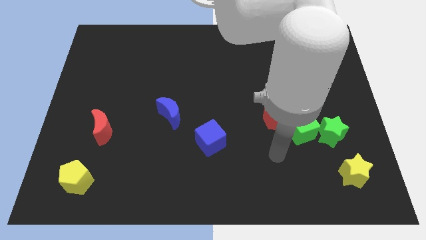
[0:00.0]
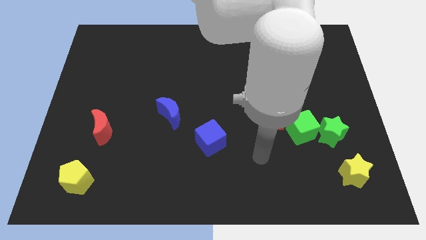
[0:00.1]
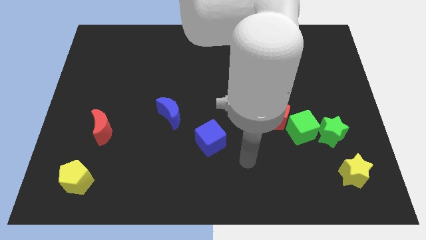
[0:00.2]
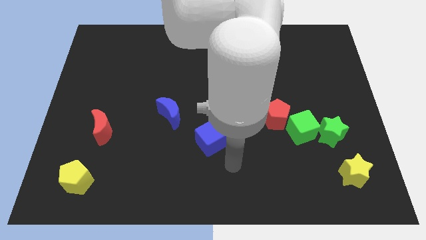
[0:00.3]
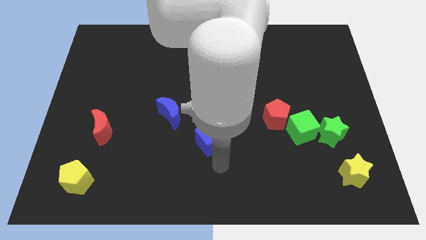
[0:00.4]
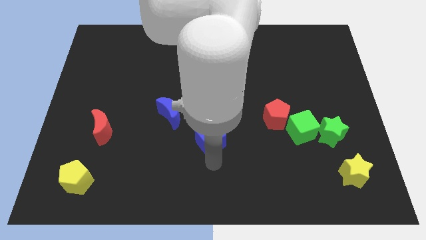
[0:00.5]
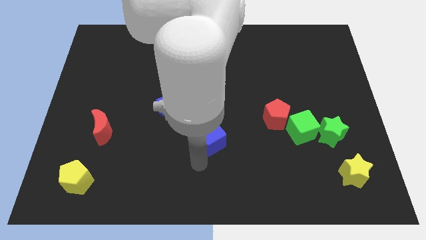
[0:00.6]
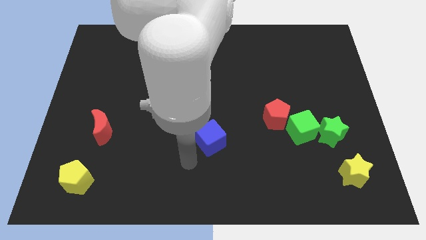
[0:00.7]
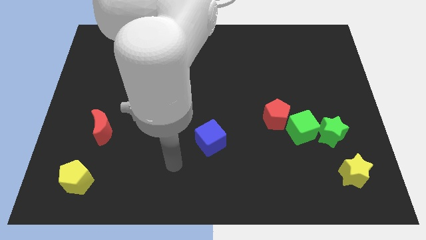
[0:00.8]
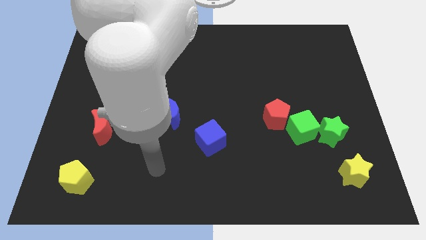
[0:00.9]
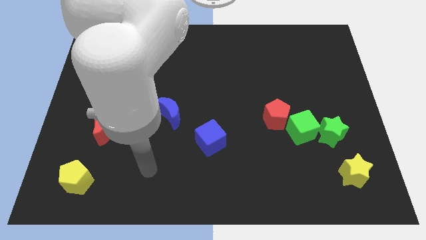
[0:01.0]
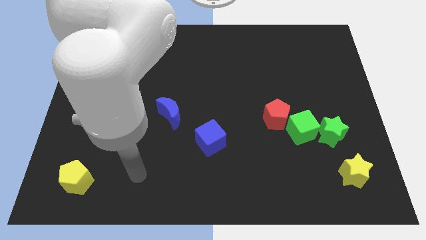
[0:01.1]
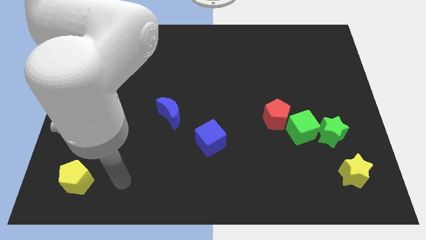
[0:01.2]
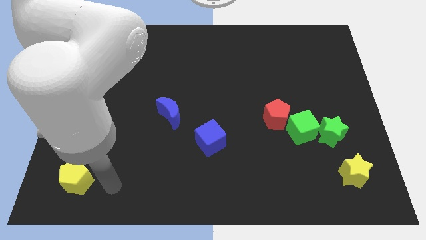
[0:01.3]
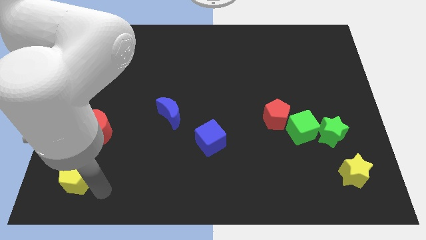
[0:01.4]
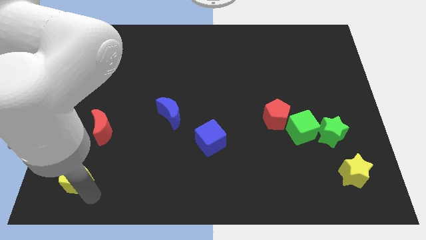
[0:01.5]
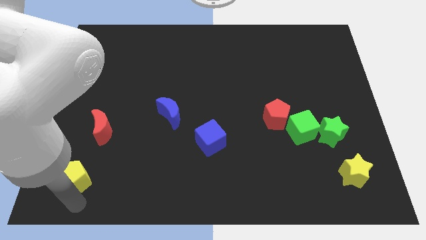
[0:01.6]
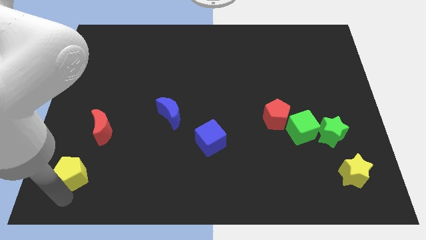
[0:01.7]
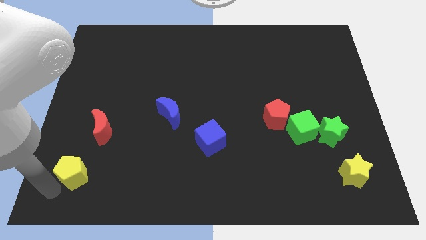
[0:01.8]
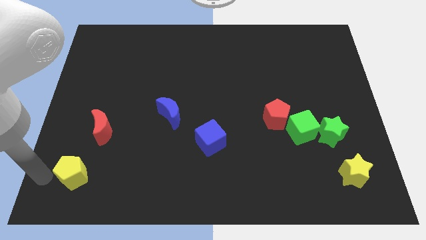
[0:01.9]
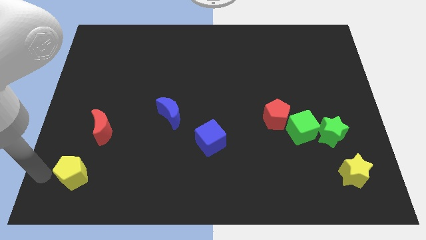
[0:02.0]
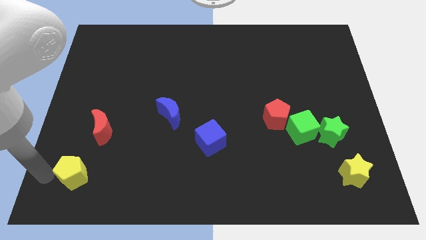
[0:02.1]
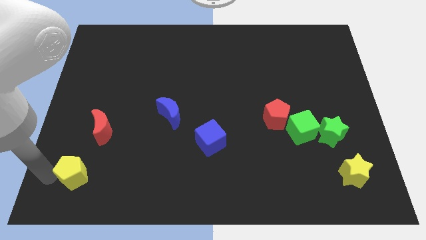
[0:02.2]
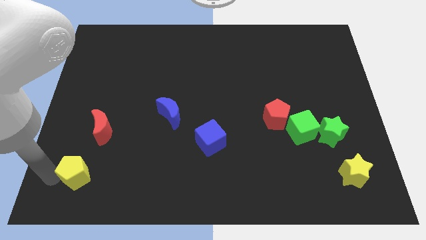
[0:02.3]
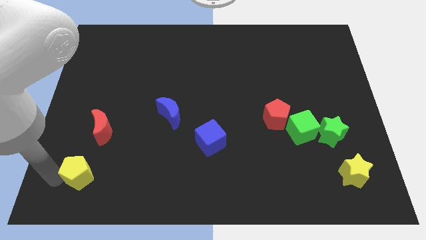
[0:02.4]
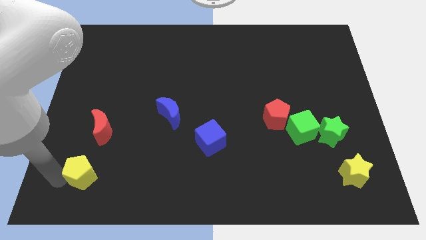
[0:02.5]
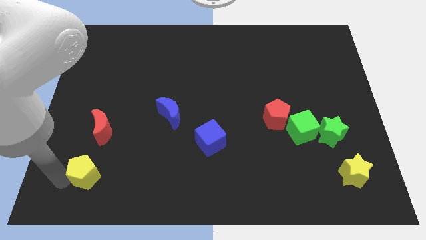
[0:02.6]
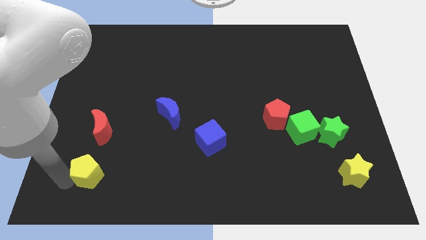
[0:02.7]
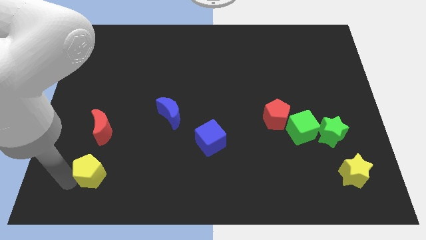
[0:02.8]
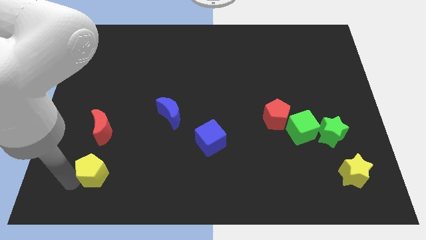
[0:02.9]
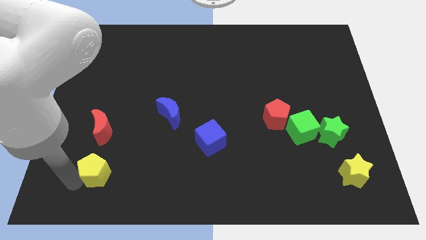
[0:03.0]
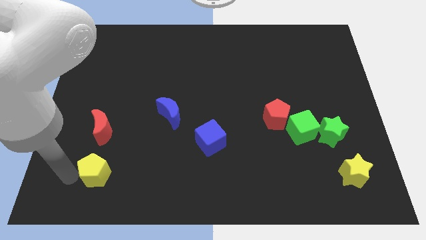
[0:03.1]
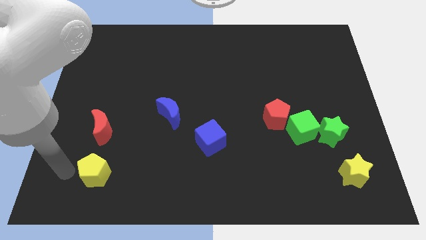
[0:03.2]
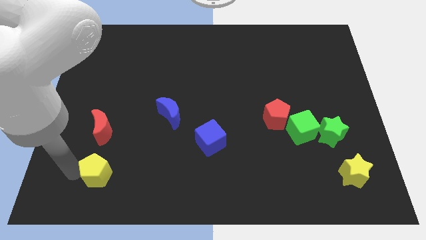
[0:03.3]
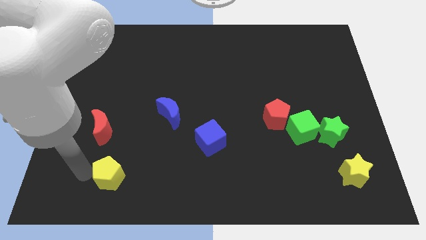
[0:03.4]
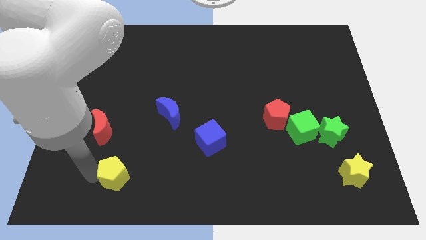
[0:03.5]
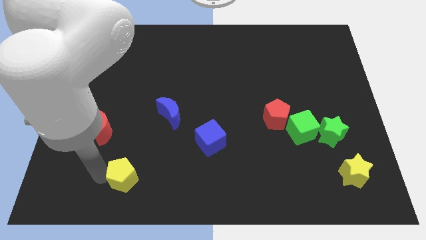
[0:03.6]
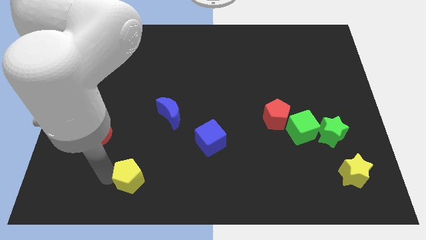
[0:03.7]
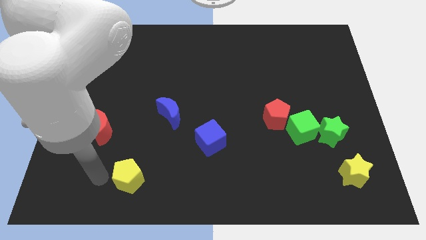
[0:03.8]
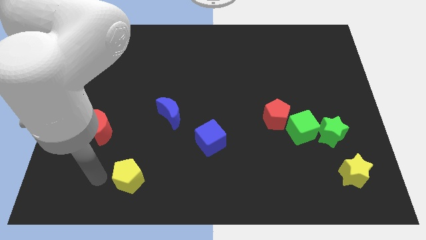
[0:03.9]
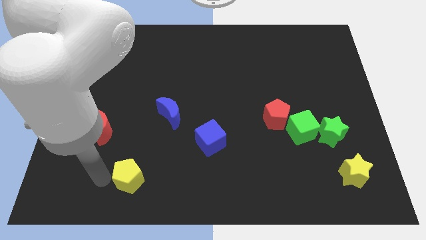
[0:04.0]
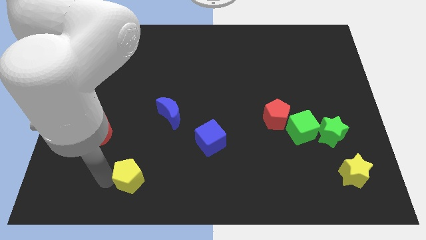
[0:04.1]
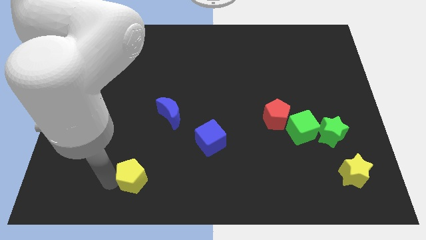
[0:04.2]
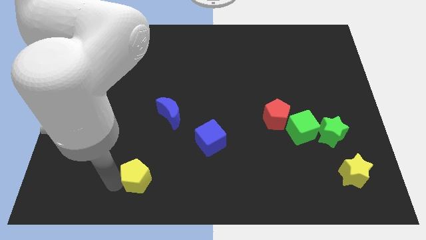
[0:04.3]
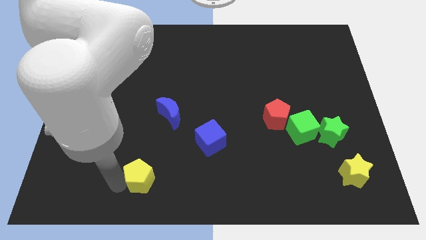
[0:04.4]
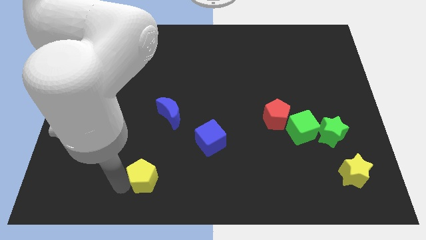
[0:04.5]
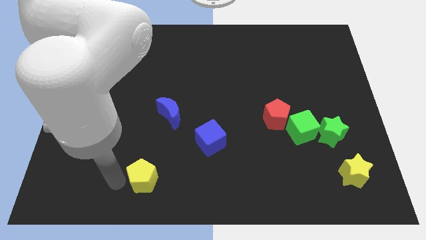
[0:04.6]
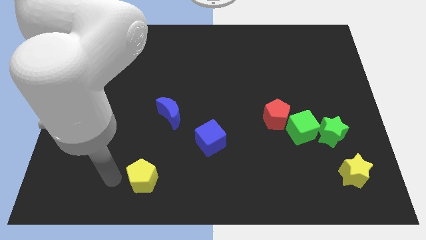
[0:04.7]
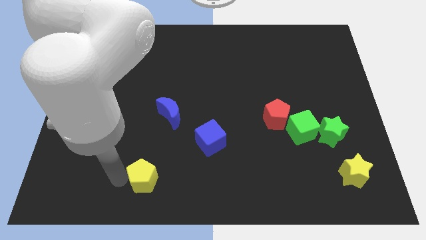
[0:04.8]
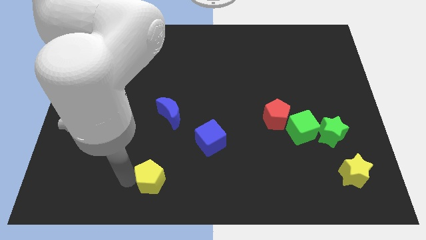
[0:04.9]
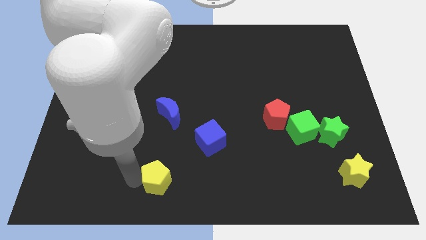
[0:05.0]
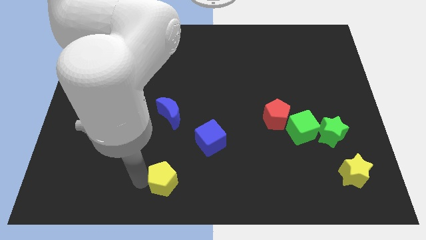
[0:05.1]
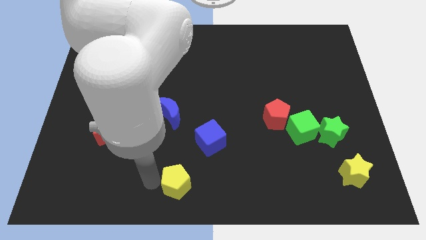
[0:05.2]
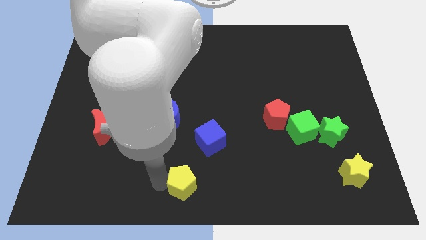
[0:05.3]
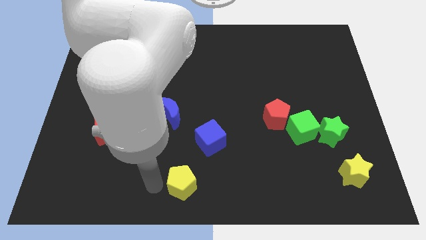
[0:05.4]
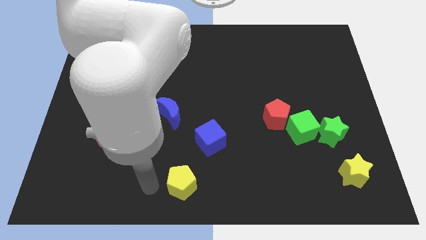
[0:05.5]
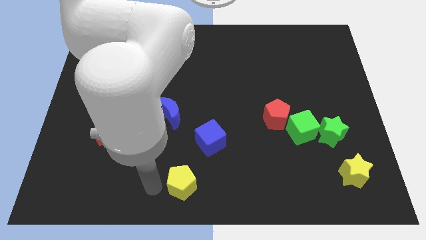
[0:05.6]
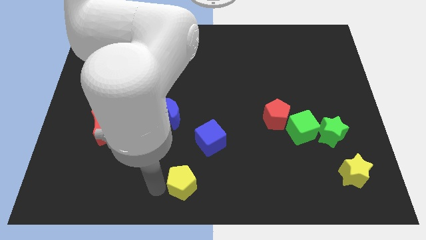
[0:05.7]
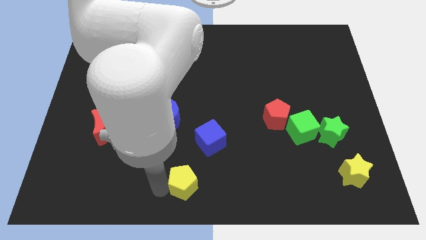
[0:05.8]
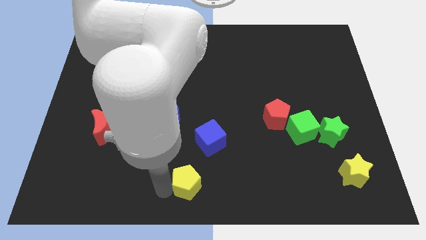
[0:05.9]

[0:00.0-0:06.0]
move the yellow pentagon to the bottom side of the blue cube

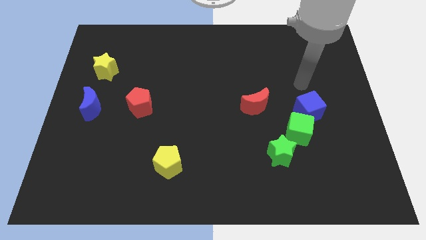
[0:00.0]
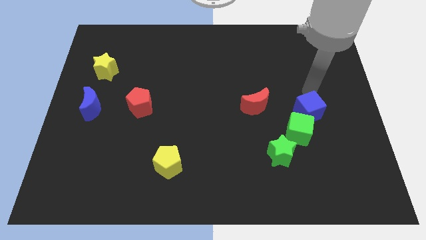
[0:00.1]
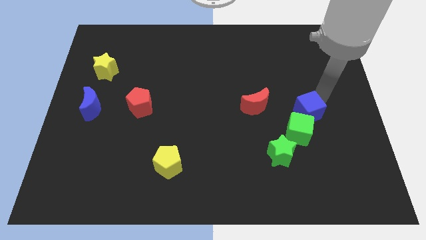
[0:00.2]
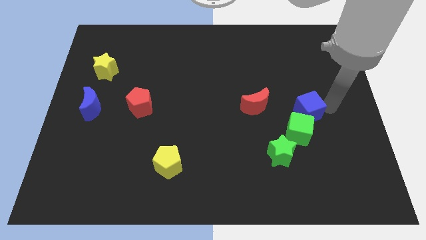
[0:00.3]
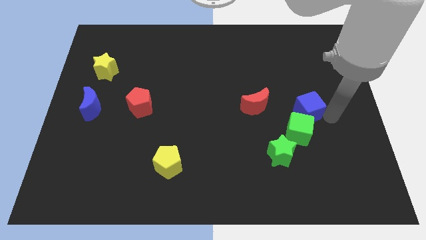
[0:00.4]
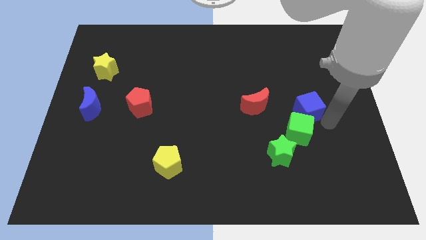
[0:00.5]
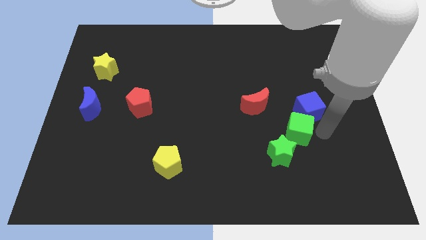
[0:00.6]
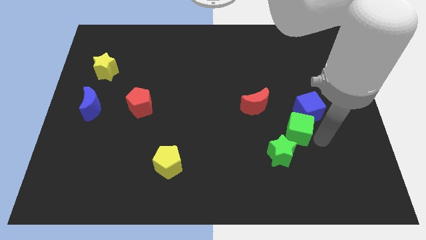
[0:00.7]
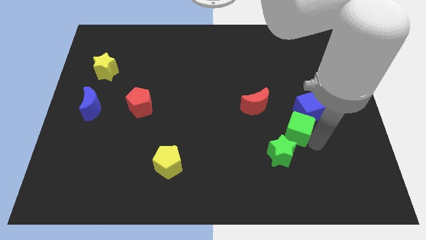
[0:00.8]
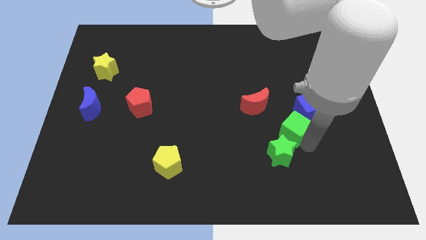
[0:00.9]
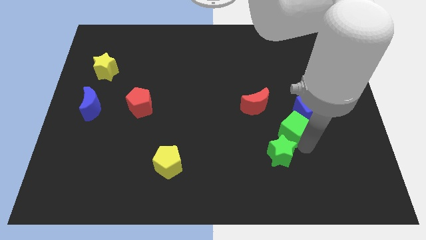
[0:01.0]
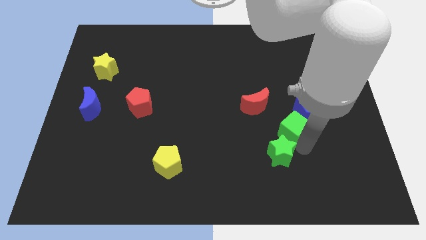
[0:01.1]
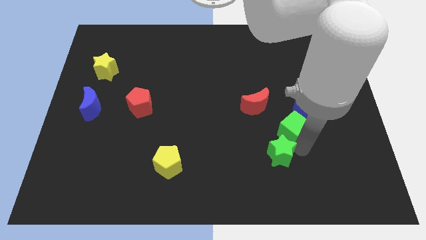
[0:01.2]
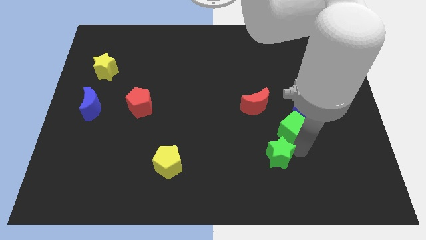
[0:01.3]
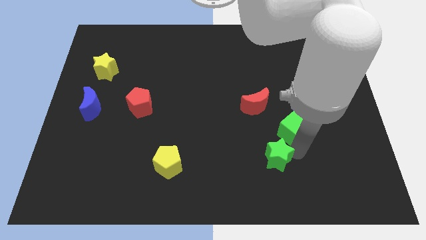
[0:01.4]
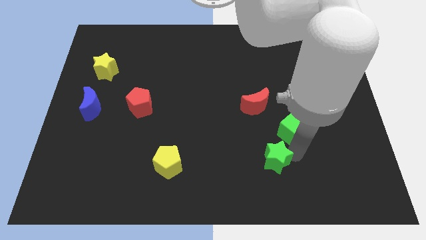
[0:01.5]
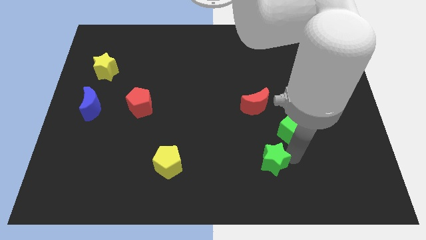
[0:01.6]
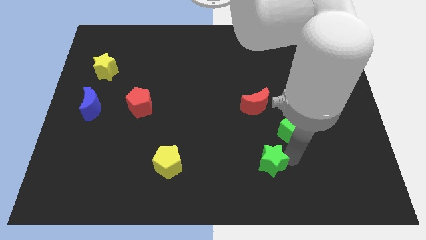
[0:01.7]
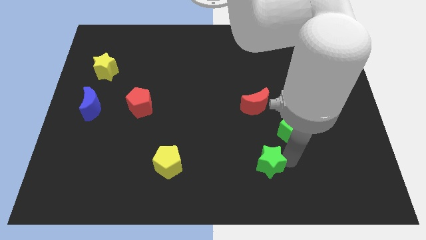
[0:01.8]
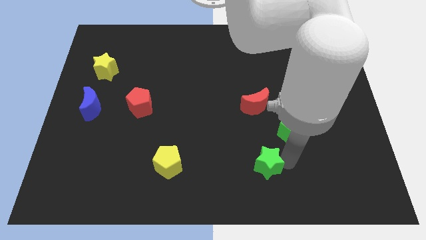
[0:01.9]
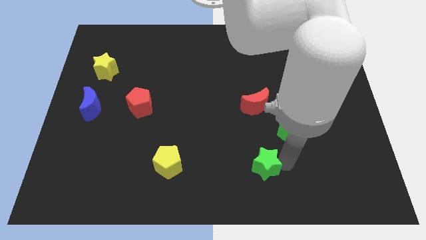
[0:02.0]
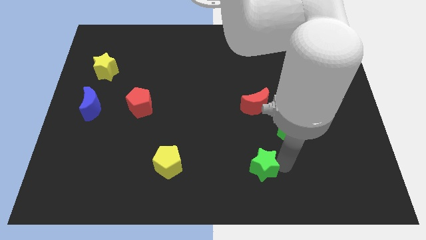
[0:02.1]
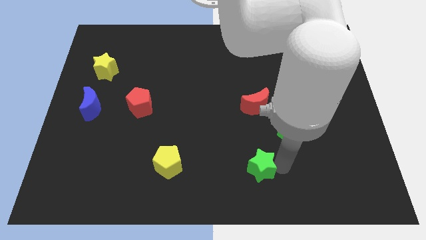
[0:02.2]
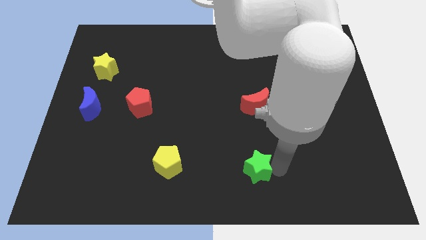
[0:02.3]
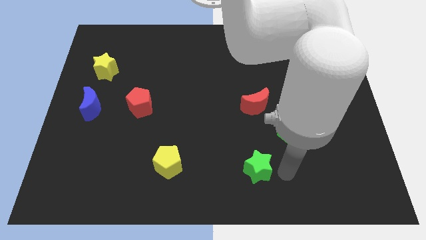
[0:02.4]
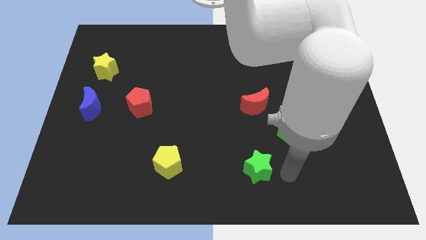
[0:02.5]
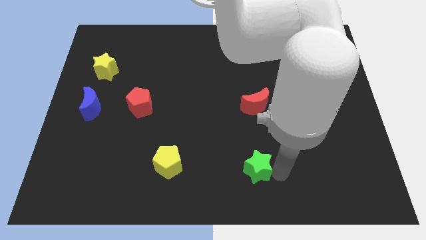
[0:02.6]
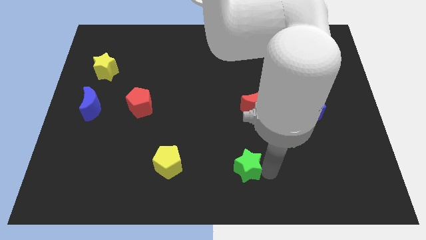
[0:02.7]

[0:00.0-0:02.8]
slide the green star just right of the yellow pentagon
